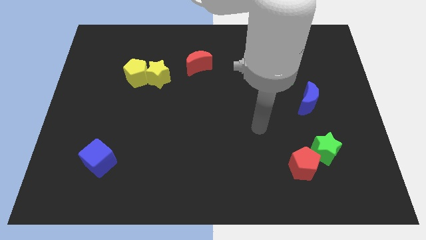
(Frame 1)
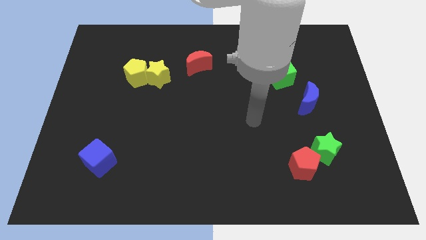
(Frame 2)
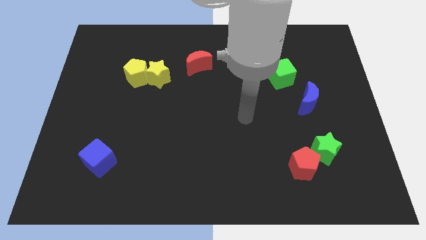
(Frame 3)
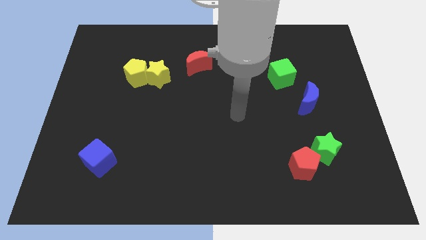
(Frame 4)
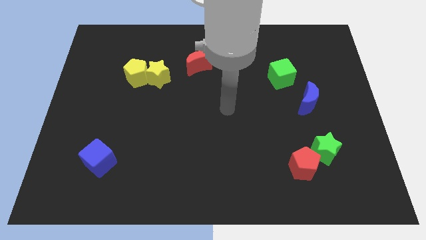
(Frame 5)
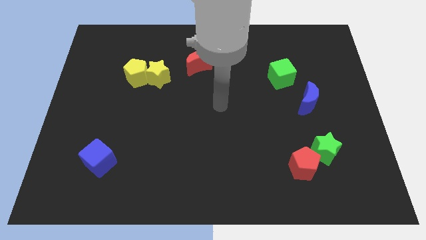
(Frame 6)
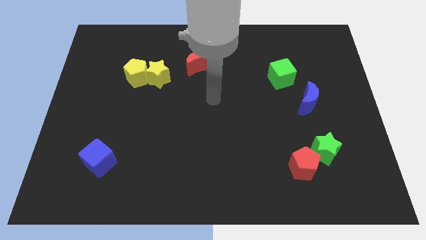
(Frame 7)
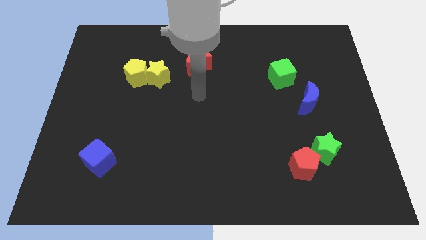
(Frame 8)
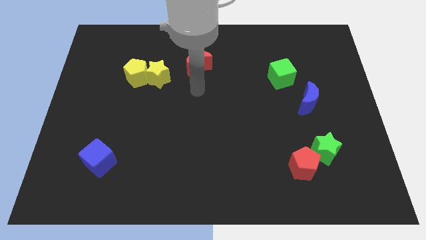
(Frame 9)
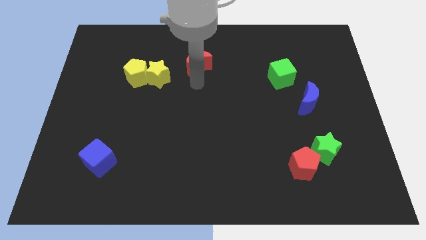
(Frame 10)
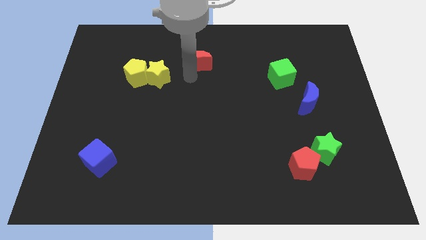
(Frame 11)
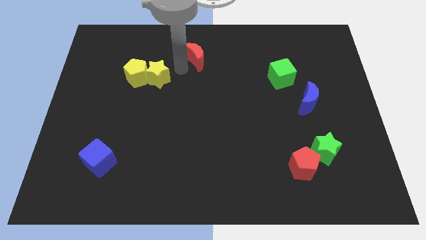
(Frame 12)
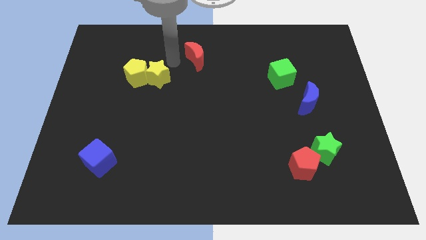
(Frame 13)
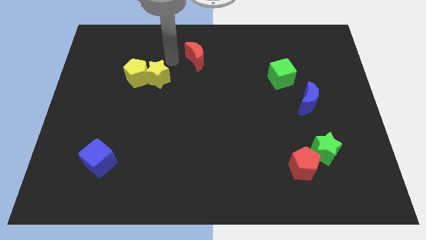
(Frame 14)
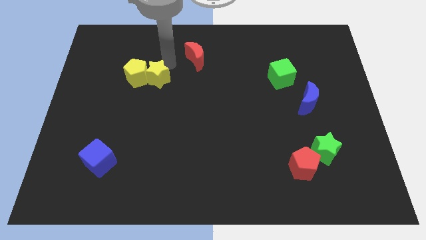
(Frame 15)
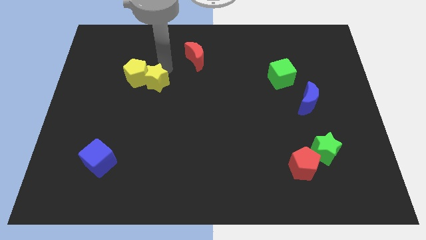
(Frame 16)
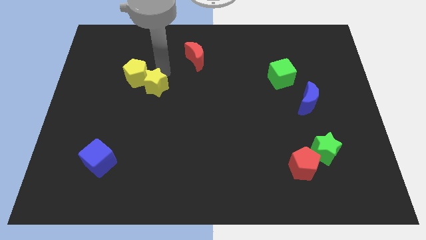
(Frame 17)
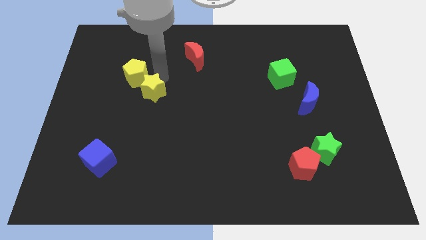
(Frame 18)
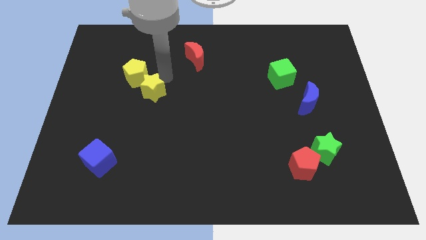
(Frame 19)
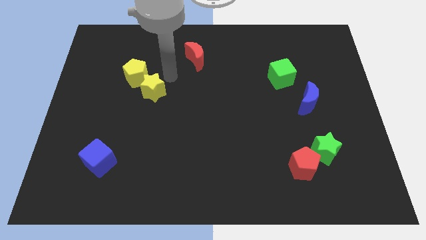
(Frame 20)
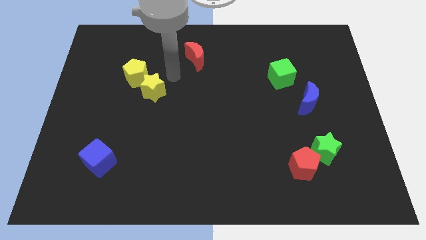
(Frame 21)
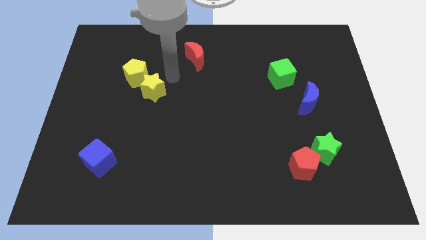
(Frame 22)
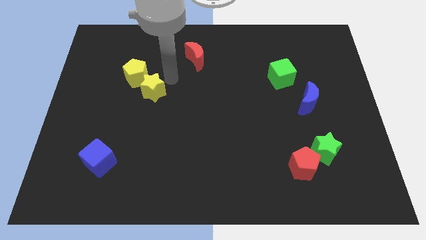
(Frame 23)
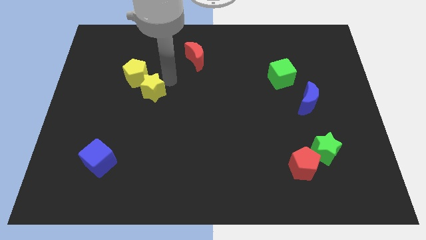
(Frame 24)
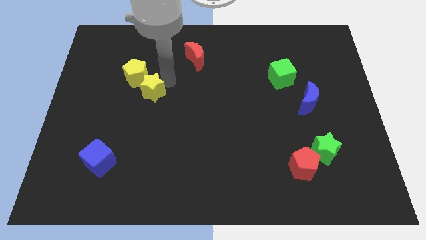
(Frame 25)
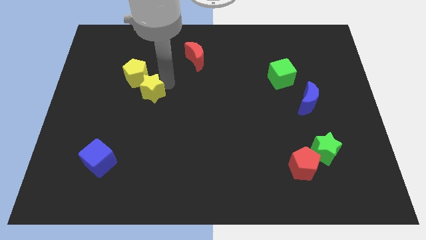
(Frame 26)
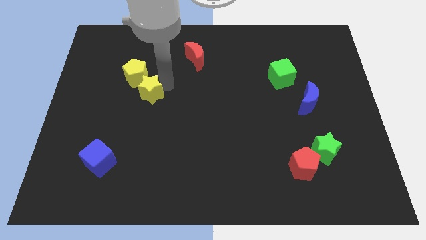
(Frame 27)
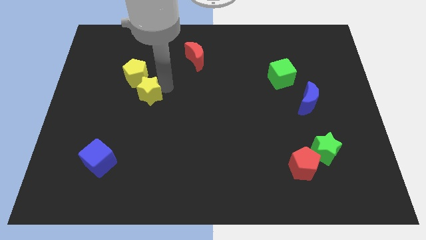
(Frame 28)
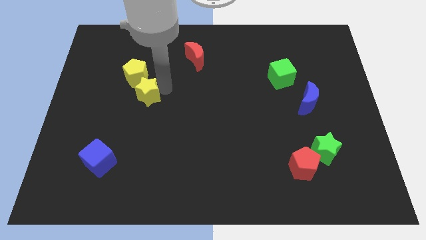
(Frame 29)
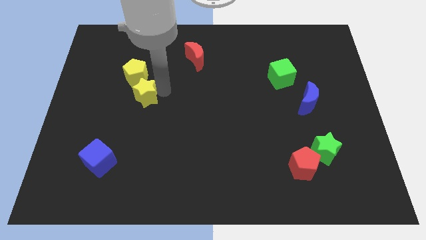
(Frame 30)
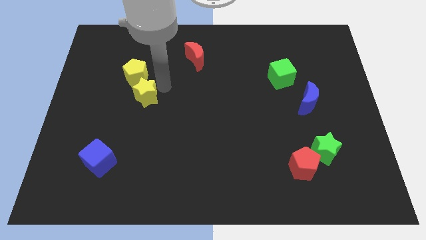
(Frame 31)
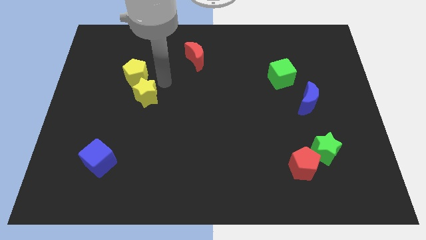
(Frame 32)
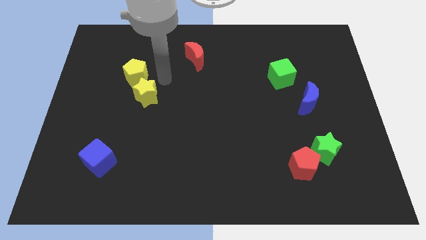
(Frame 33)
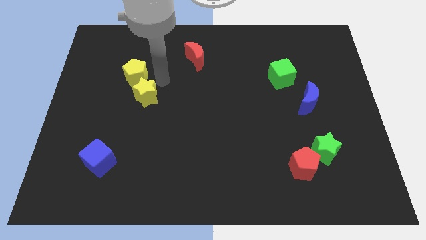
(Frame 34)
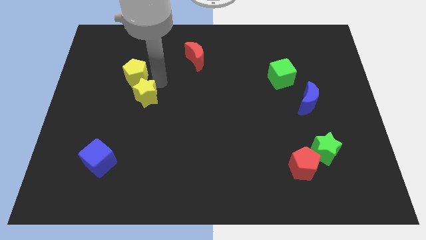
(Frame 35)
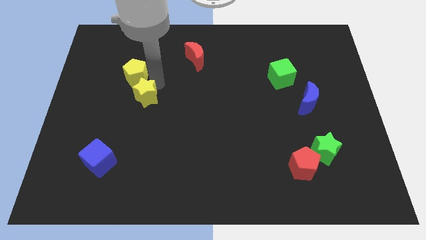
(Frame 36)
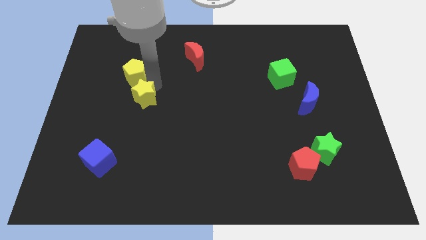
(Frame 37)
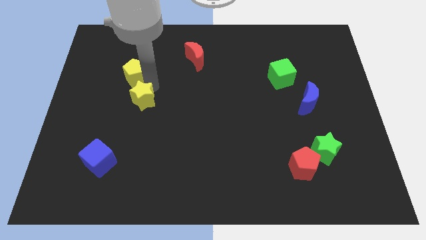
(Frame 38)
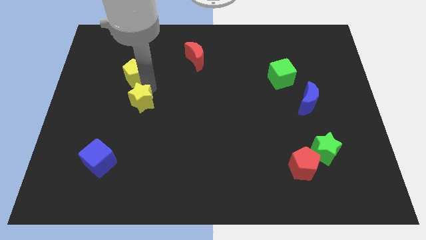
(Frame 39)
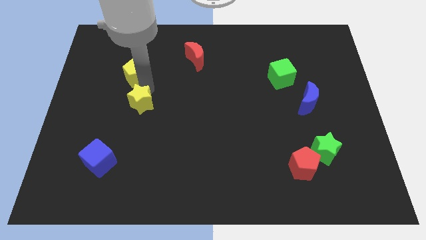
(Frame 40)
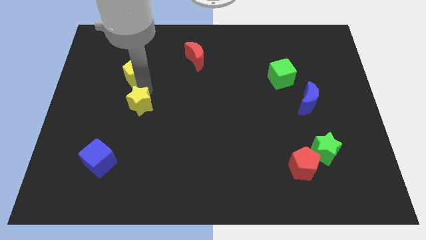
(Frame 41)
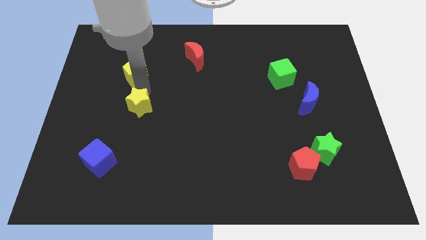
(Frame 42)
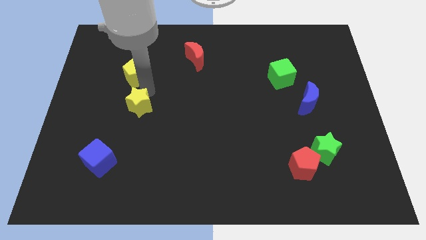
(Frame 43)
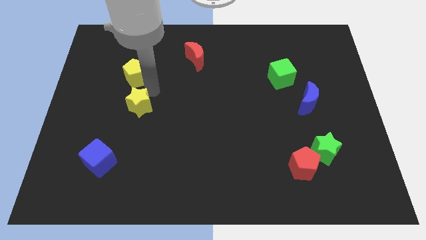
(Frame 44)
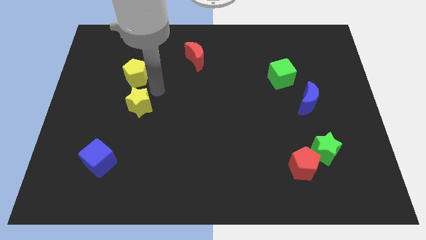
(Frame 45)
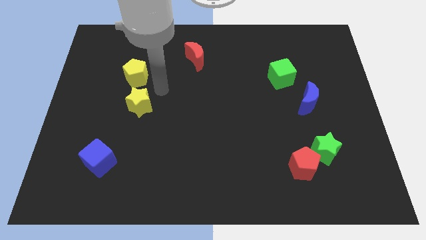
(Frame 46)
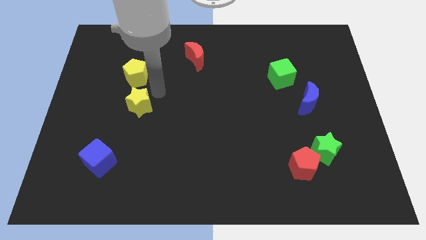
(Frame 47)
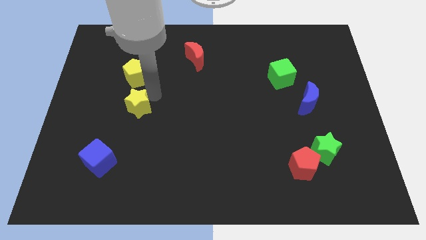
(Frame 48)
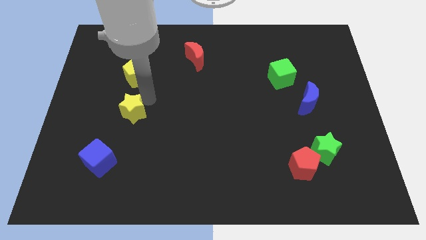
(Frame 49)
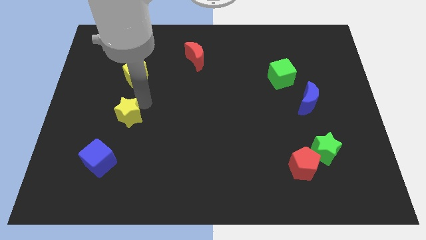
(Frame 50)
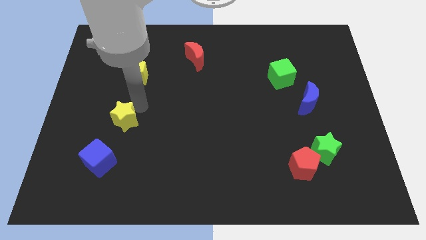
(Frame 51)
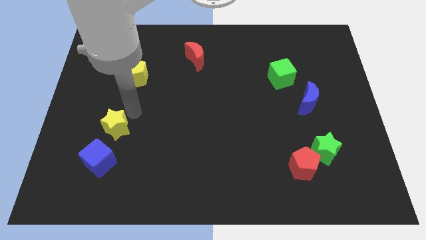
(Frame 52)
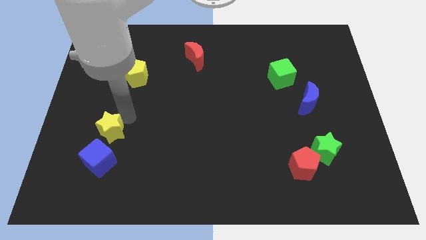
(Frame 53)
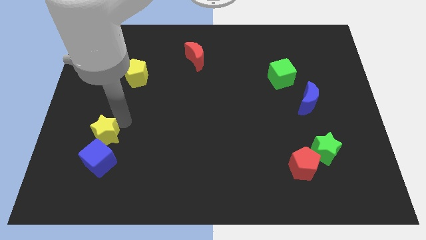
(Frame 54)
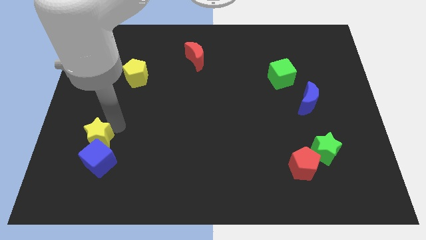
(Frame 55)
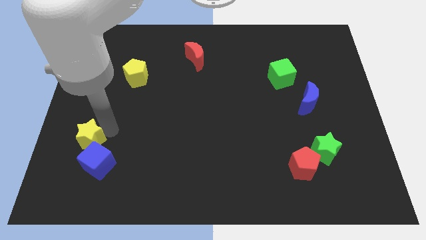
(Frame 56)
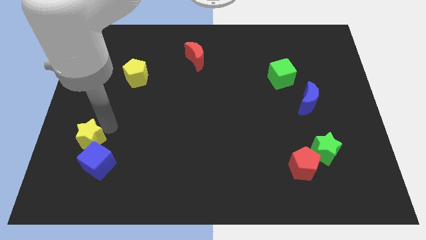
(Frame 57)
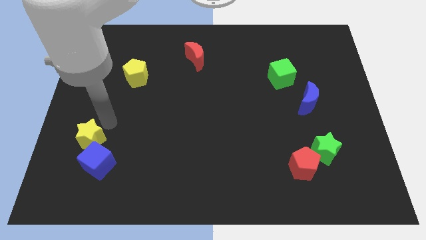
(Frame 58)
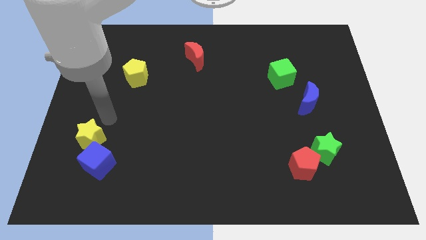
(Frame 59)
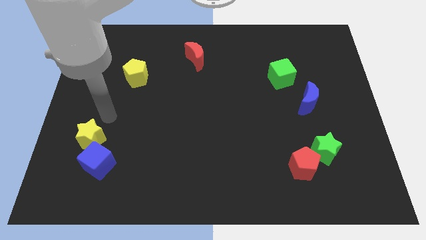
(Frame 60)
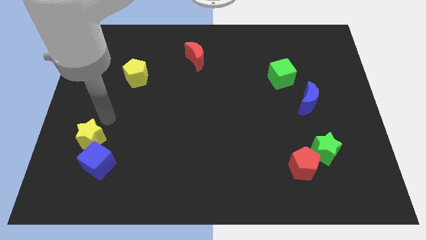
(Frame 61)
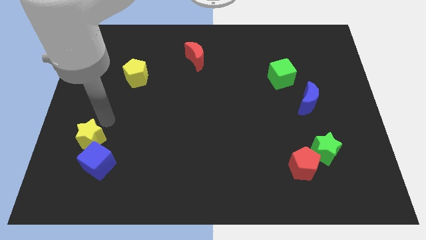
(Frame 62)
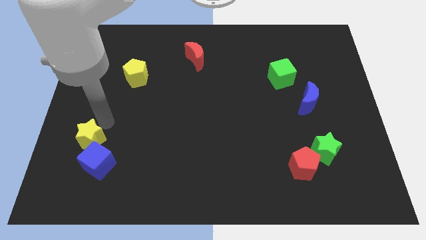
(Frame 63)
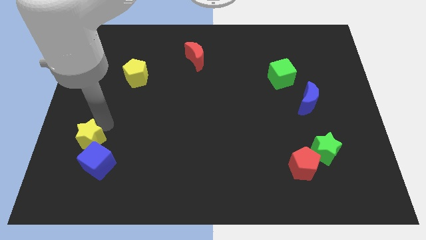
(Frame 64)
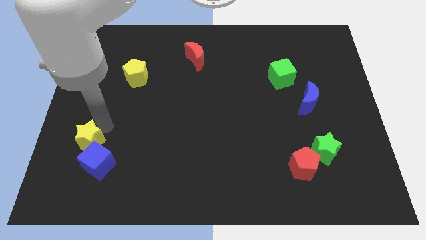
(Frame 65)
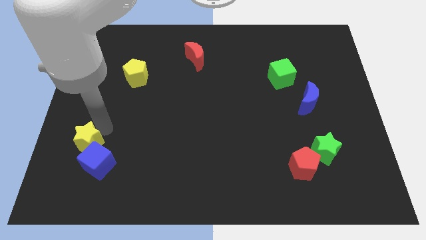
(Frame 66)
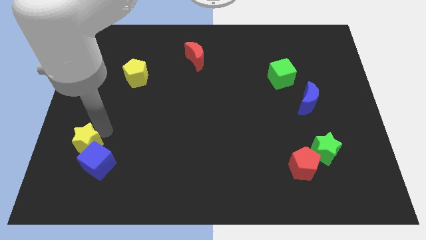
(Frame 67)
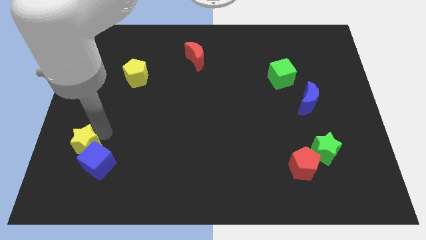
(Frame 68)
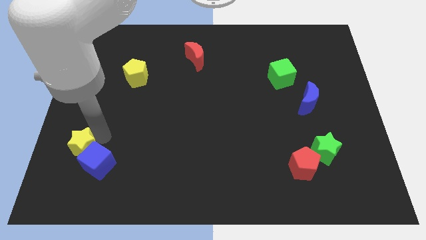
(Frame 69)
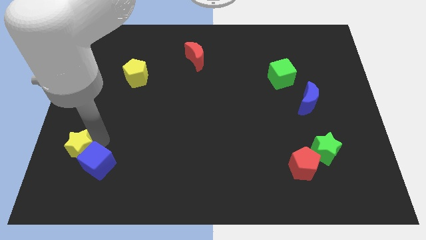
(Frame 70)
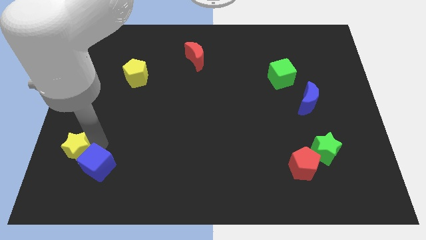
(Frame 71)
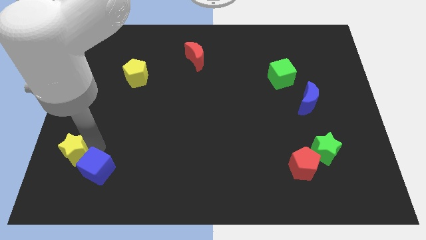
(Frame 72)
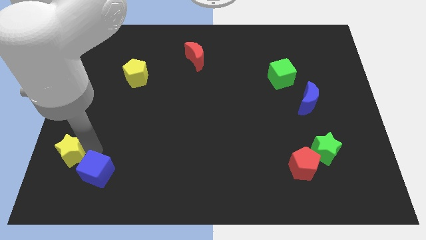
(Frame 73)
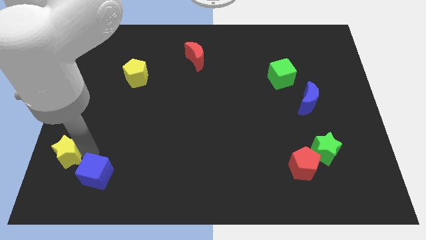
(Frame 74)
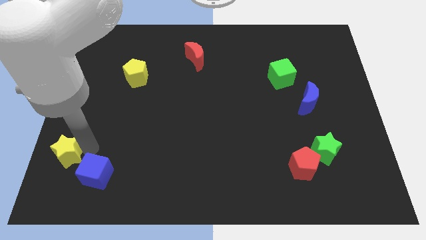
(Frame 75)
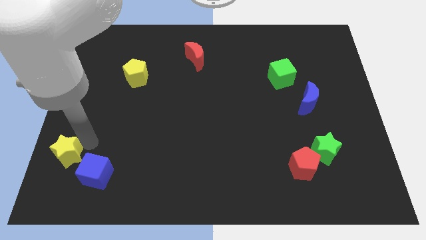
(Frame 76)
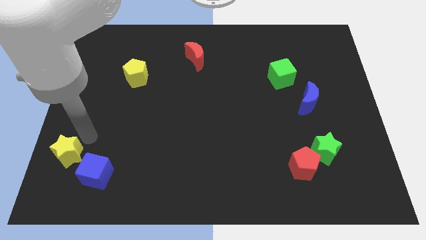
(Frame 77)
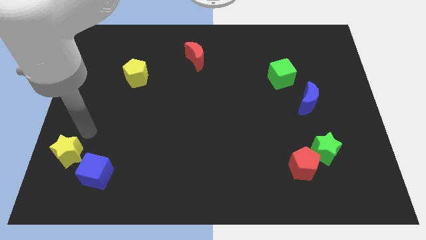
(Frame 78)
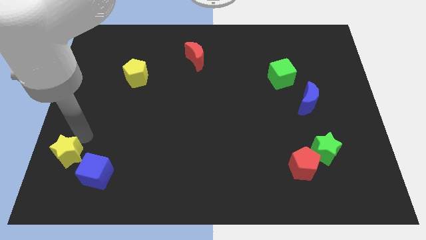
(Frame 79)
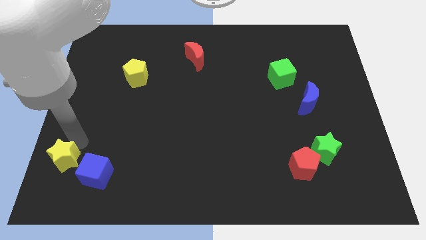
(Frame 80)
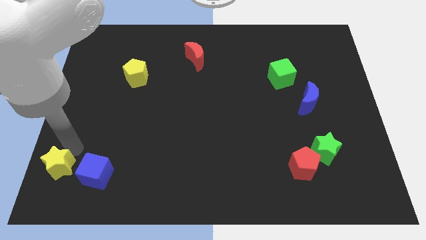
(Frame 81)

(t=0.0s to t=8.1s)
move the yellow star to the bottom left of the board
